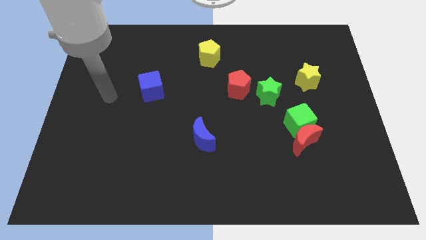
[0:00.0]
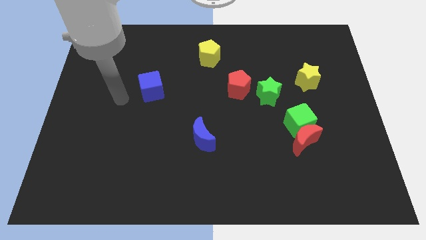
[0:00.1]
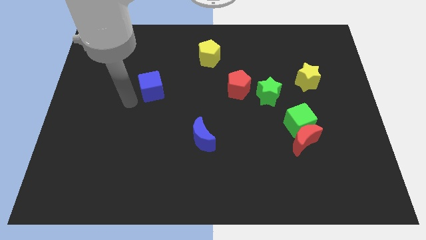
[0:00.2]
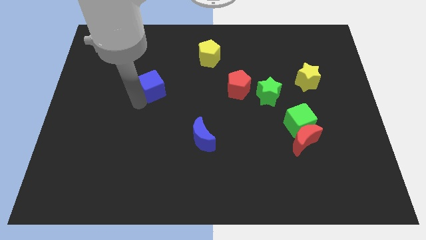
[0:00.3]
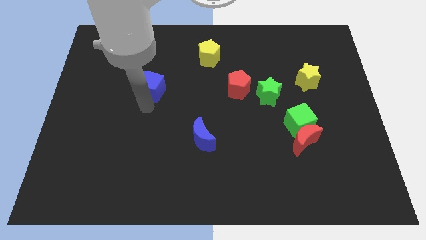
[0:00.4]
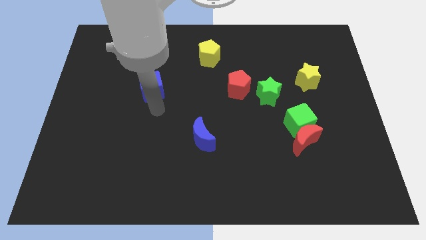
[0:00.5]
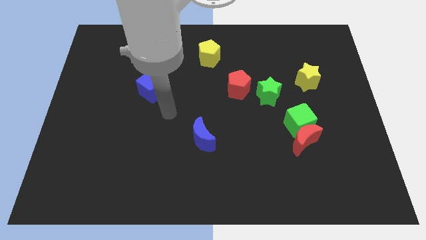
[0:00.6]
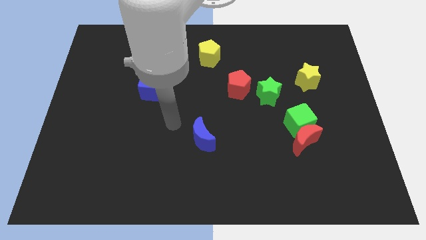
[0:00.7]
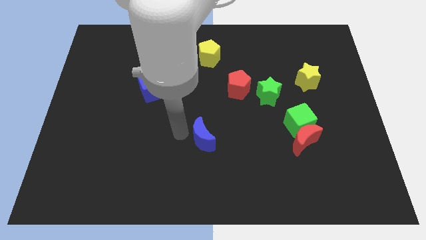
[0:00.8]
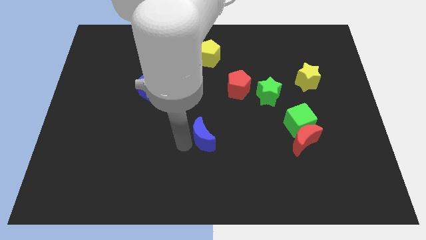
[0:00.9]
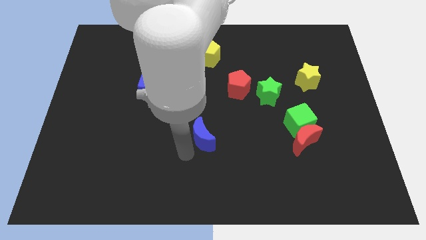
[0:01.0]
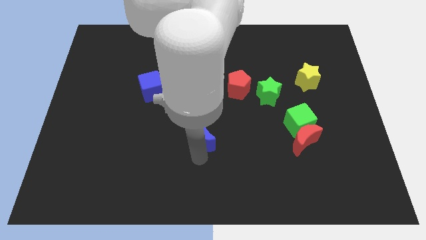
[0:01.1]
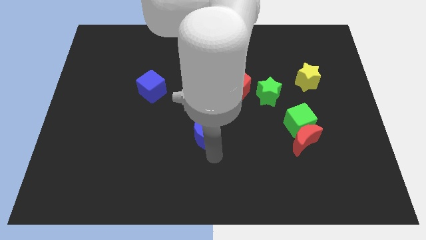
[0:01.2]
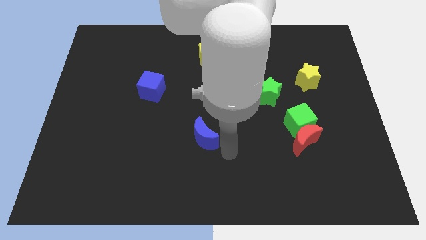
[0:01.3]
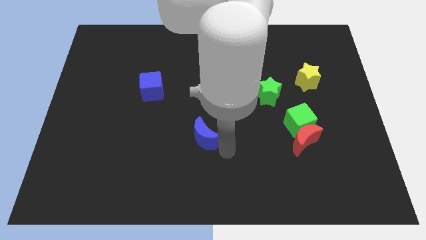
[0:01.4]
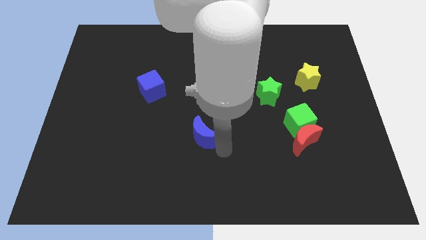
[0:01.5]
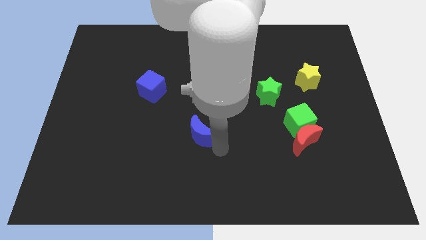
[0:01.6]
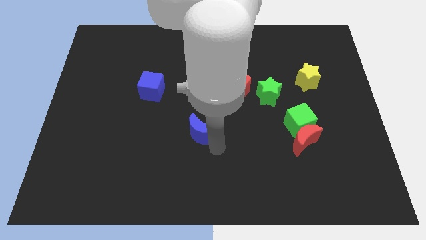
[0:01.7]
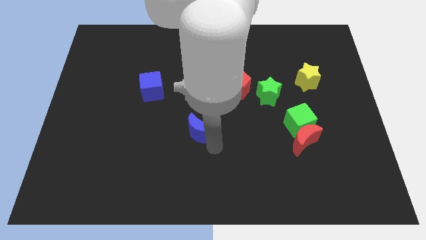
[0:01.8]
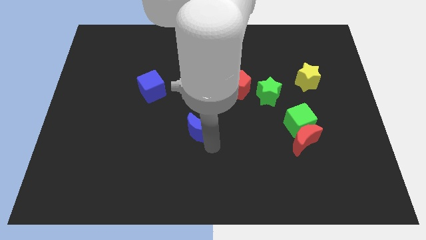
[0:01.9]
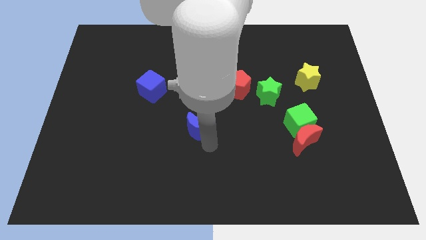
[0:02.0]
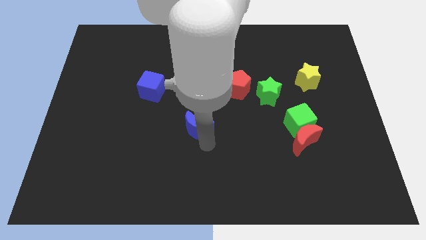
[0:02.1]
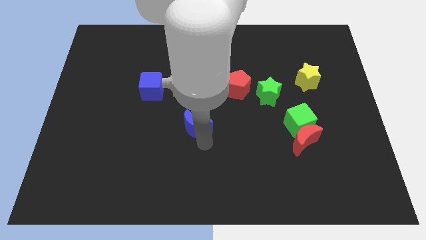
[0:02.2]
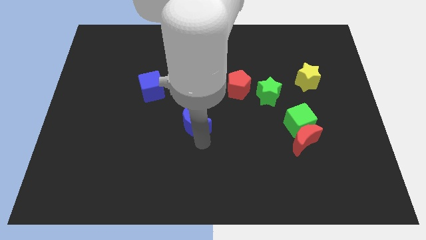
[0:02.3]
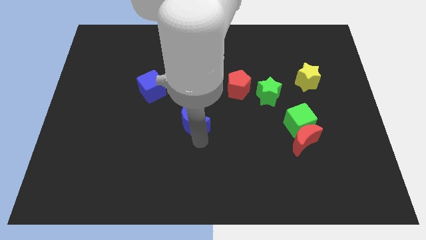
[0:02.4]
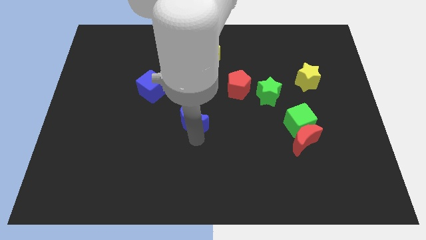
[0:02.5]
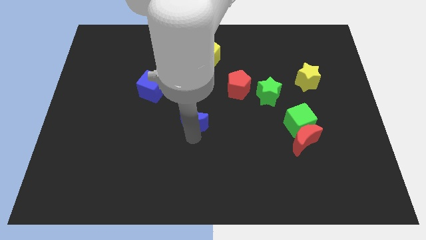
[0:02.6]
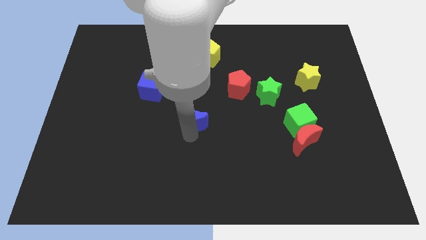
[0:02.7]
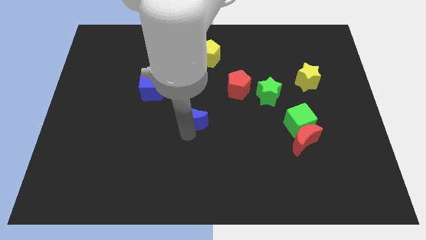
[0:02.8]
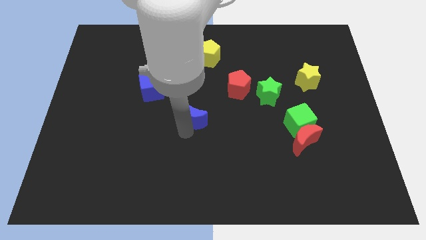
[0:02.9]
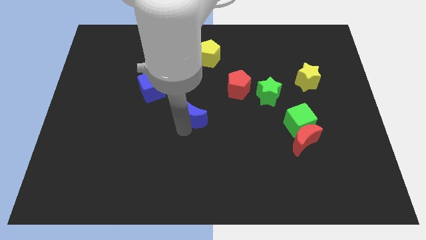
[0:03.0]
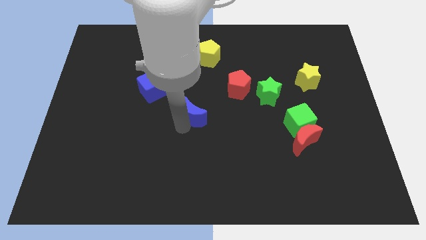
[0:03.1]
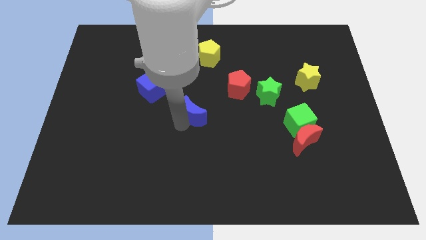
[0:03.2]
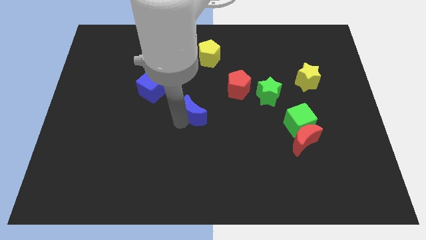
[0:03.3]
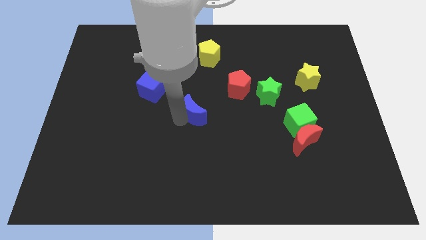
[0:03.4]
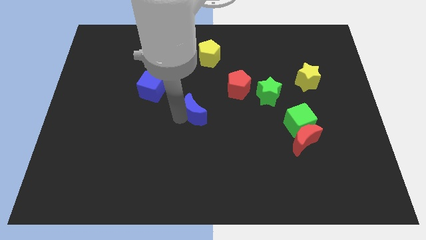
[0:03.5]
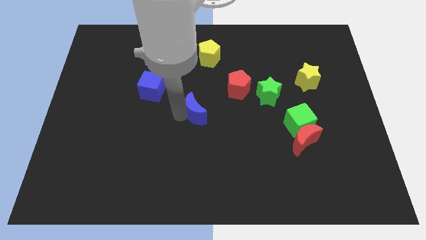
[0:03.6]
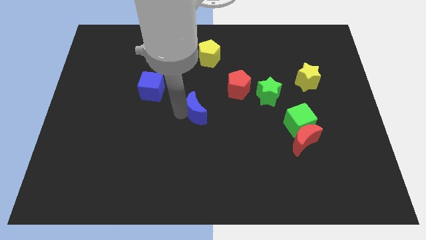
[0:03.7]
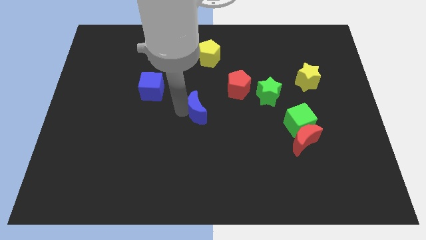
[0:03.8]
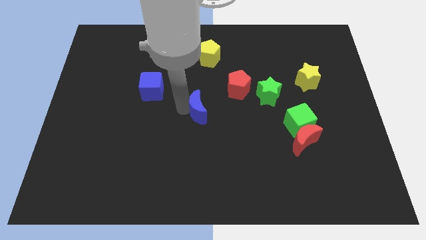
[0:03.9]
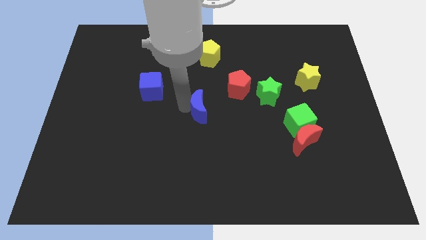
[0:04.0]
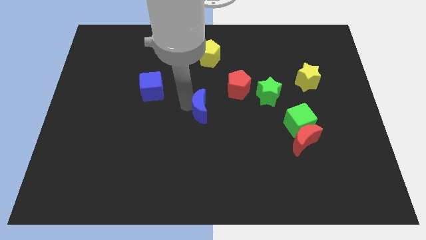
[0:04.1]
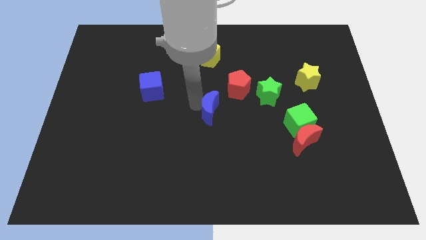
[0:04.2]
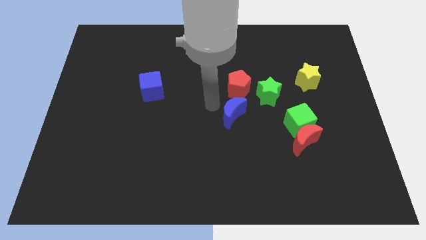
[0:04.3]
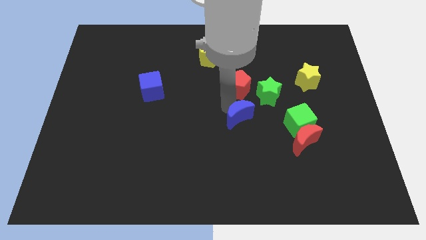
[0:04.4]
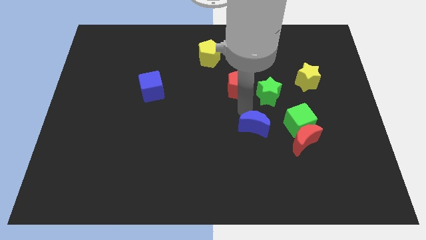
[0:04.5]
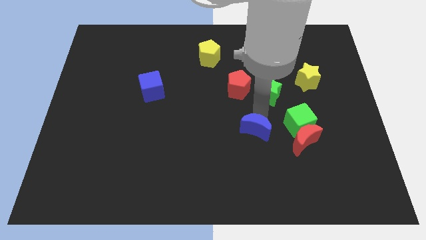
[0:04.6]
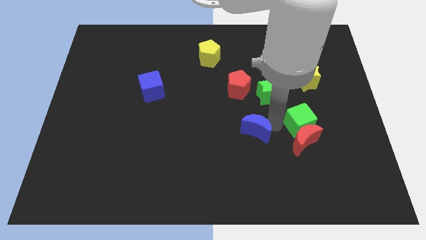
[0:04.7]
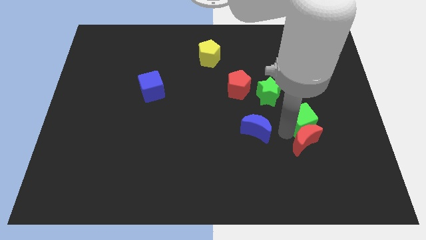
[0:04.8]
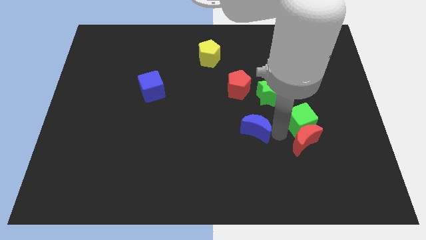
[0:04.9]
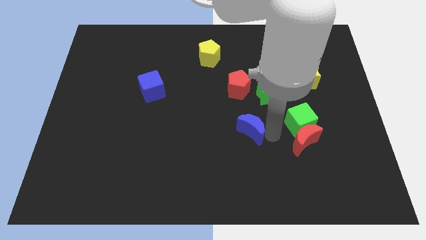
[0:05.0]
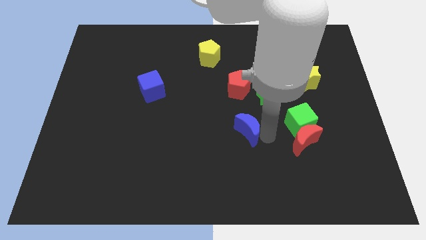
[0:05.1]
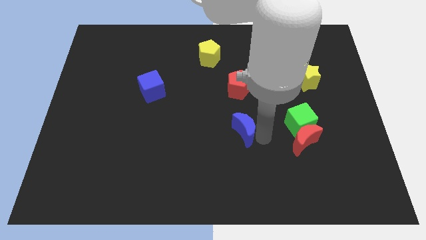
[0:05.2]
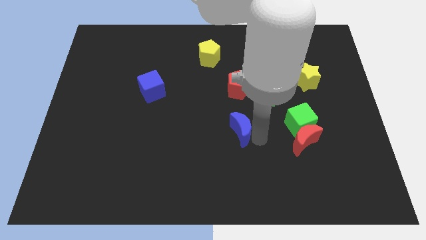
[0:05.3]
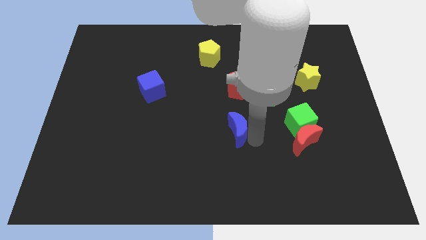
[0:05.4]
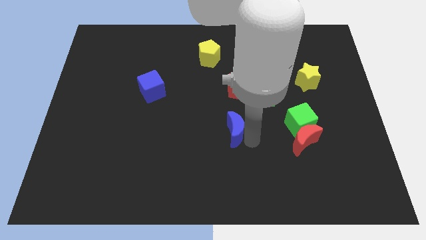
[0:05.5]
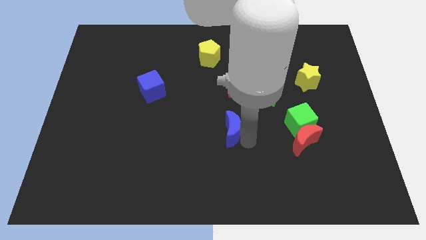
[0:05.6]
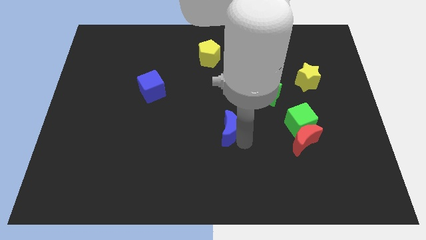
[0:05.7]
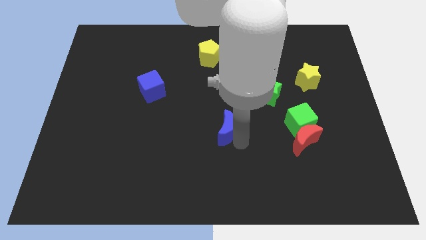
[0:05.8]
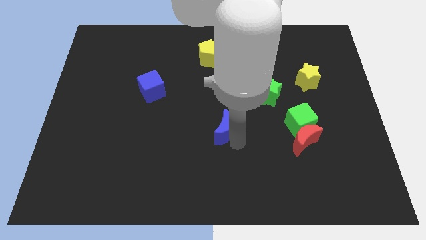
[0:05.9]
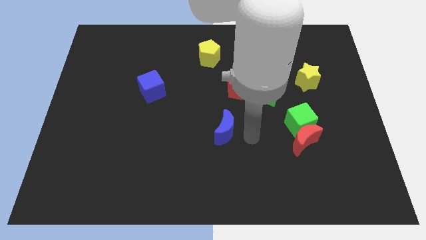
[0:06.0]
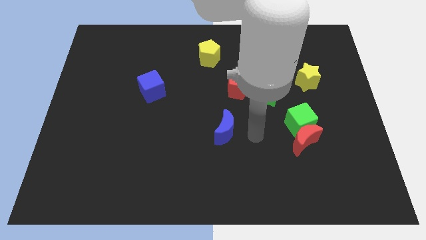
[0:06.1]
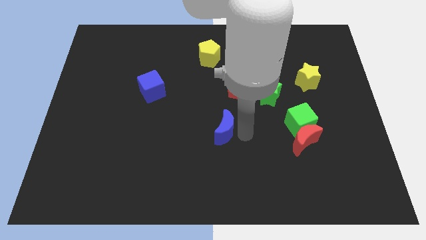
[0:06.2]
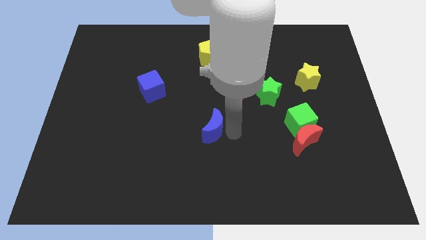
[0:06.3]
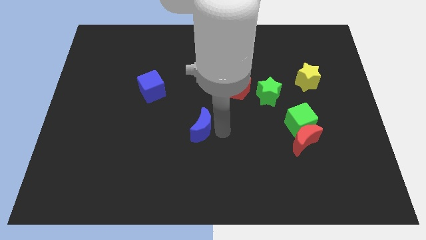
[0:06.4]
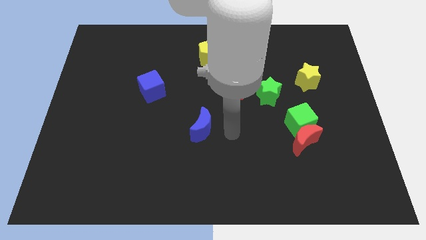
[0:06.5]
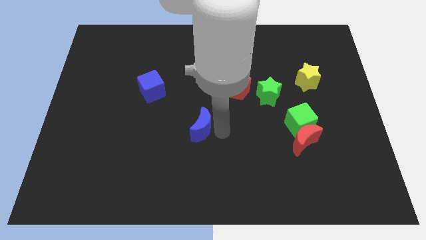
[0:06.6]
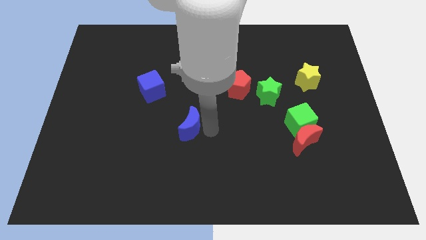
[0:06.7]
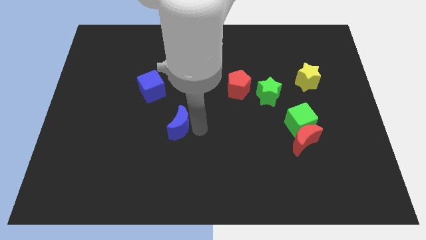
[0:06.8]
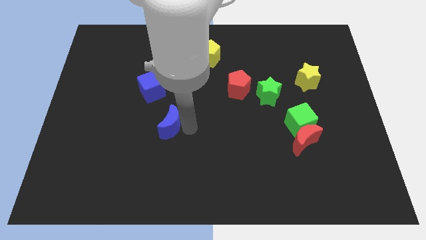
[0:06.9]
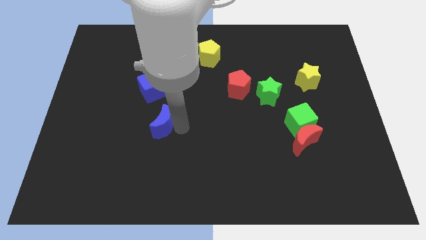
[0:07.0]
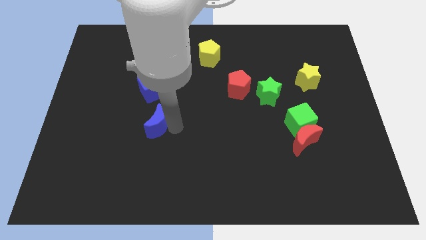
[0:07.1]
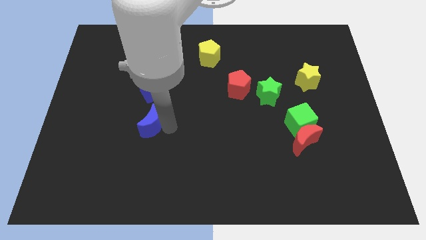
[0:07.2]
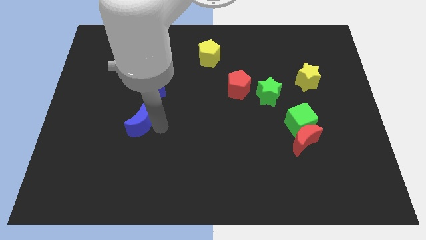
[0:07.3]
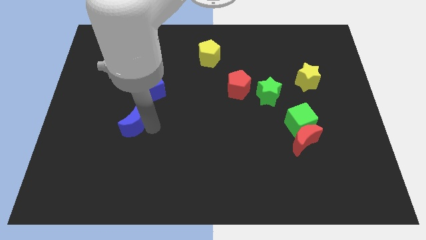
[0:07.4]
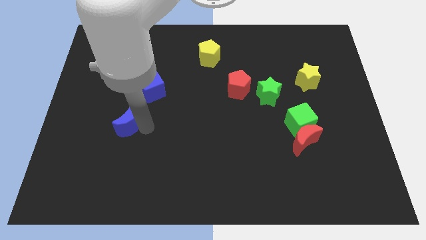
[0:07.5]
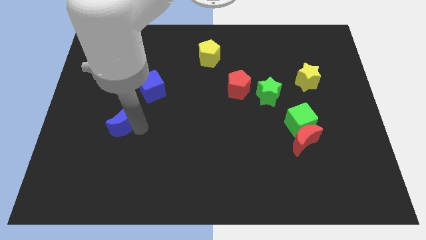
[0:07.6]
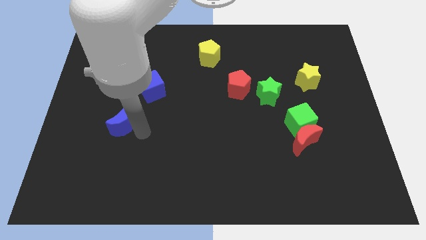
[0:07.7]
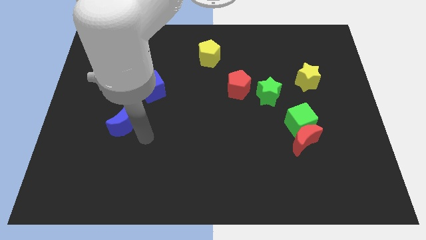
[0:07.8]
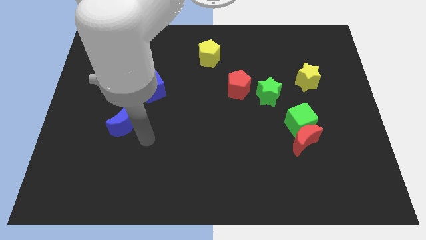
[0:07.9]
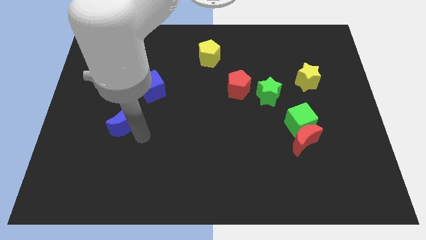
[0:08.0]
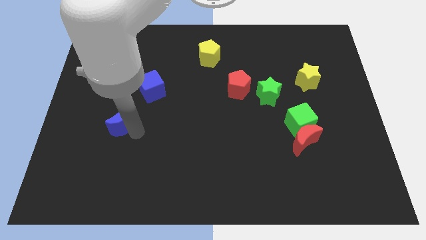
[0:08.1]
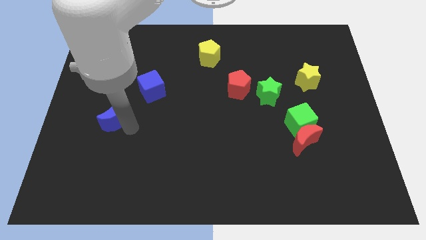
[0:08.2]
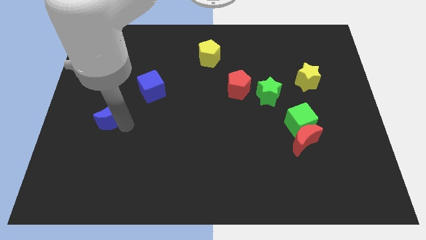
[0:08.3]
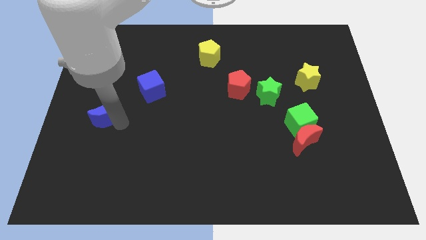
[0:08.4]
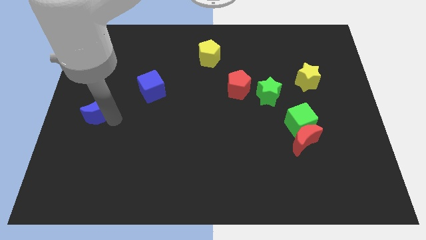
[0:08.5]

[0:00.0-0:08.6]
move the blue moon to the left side of the board
